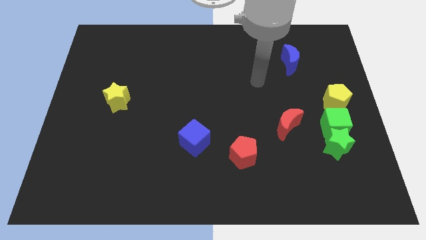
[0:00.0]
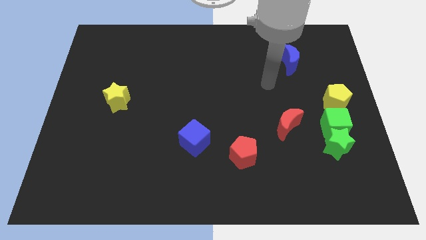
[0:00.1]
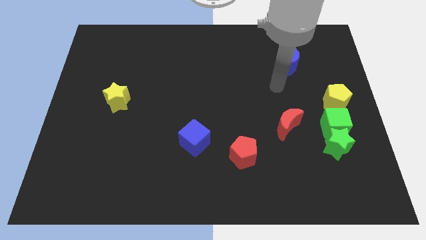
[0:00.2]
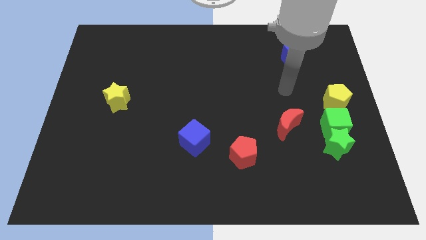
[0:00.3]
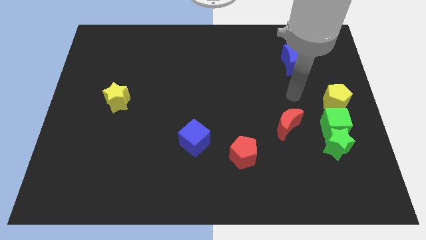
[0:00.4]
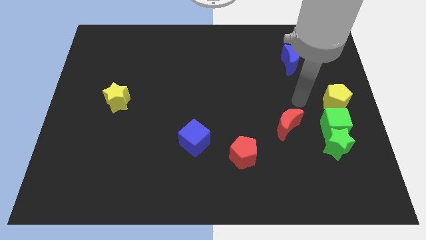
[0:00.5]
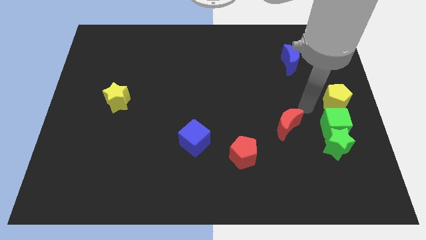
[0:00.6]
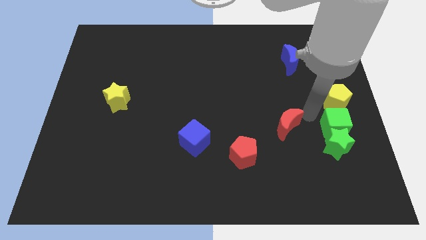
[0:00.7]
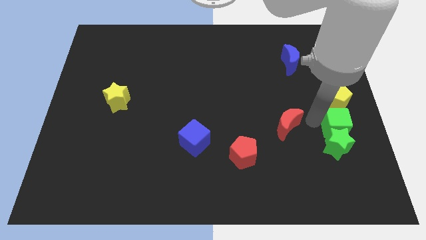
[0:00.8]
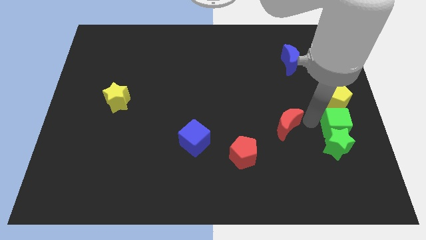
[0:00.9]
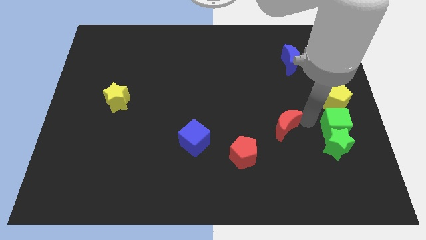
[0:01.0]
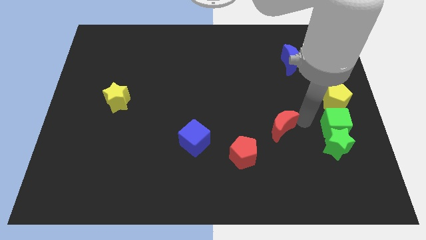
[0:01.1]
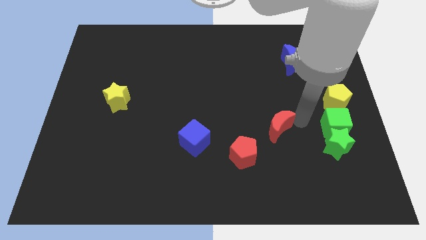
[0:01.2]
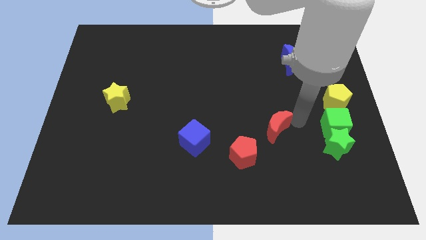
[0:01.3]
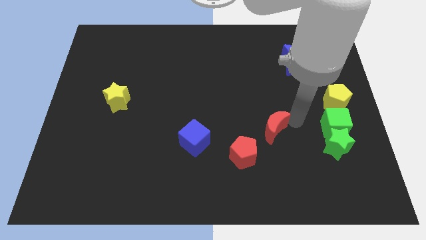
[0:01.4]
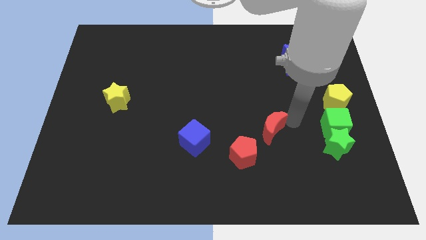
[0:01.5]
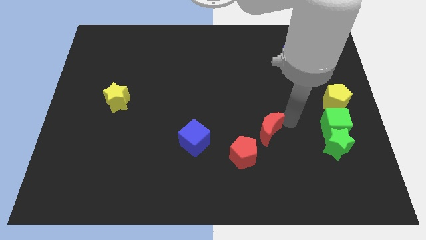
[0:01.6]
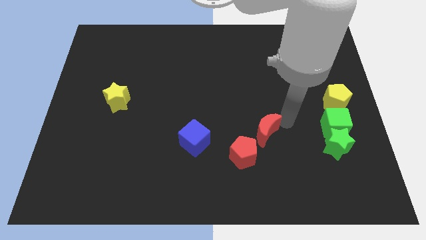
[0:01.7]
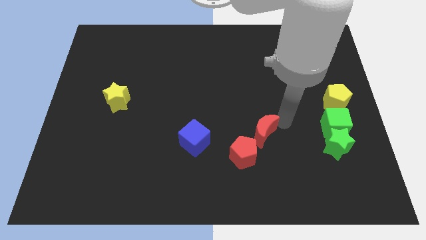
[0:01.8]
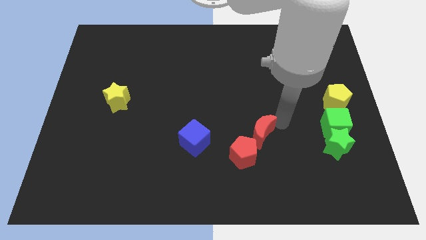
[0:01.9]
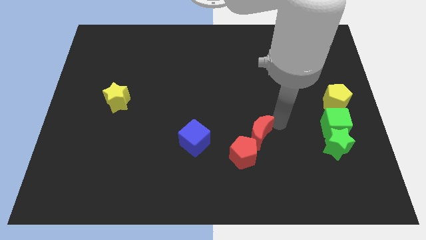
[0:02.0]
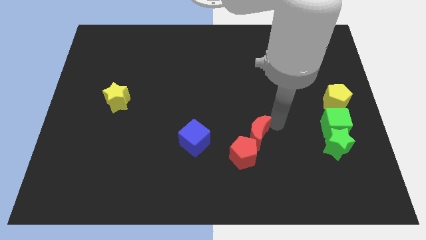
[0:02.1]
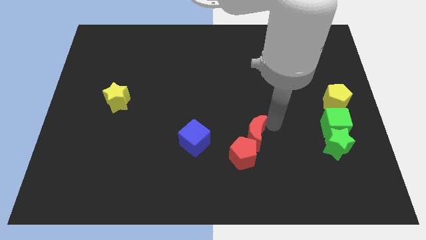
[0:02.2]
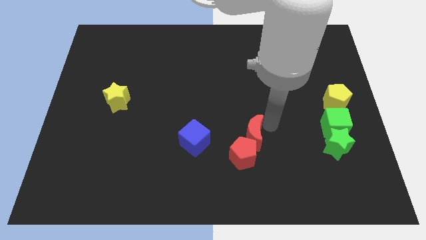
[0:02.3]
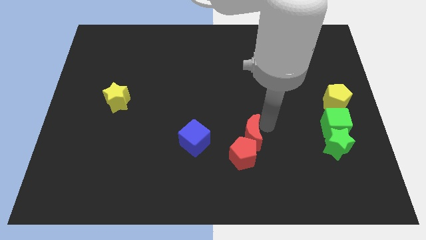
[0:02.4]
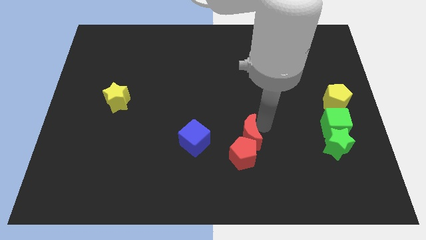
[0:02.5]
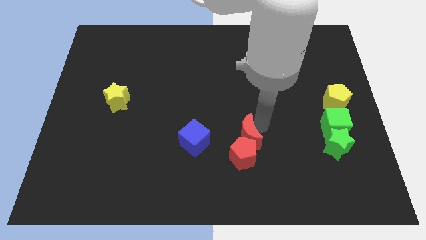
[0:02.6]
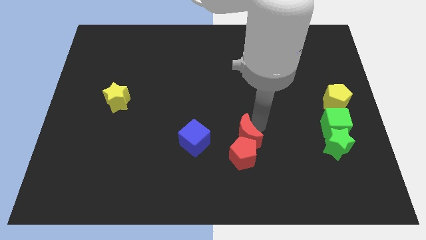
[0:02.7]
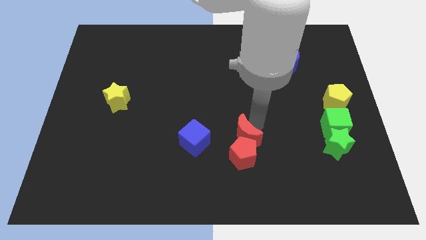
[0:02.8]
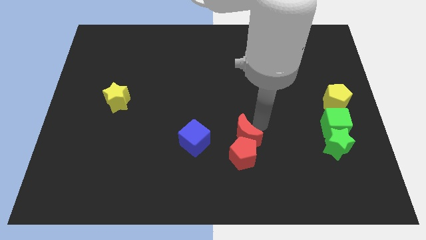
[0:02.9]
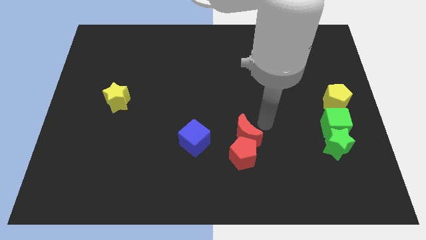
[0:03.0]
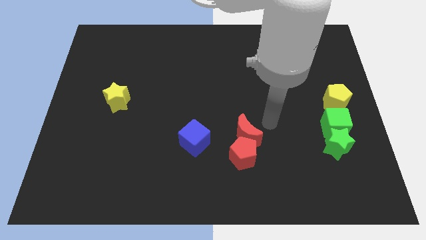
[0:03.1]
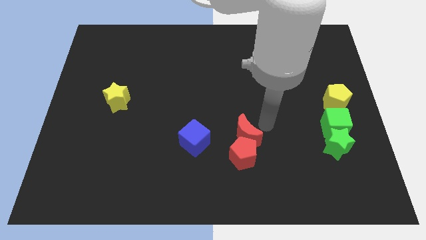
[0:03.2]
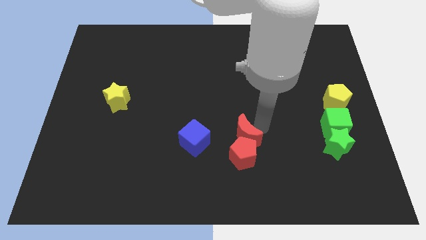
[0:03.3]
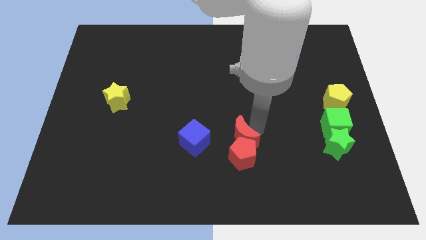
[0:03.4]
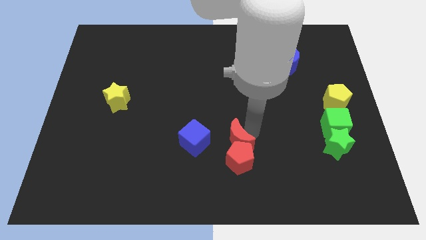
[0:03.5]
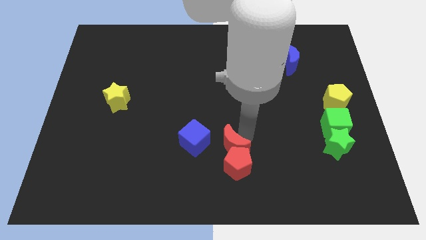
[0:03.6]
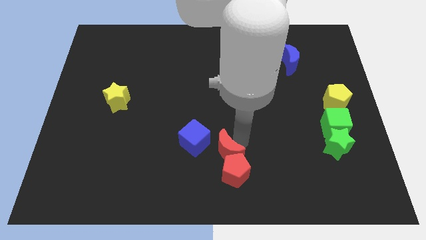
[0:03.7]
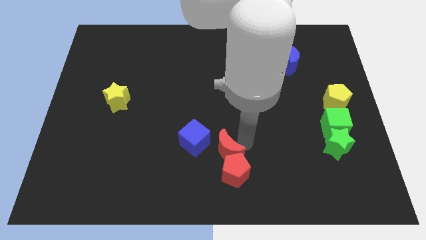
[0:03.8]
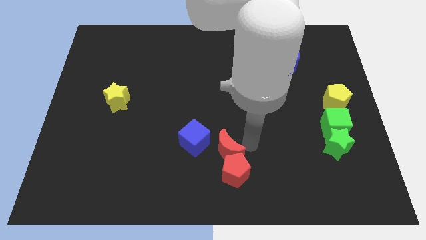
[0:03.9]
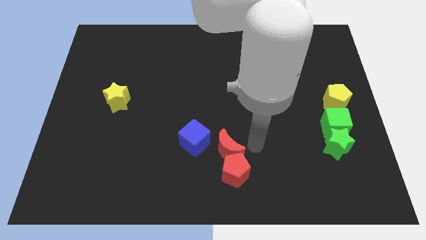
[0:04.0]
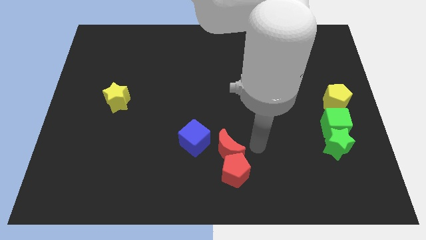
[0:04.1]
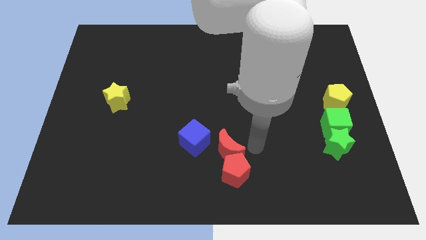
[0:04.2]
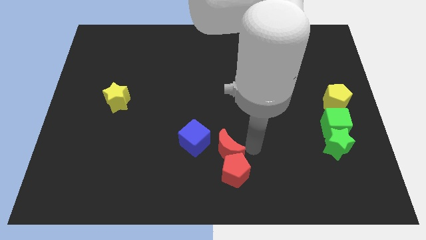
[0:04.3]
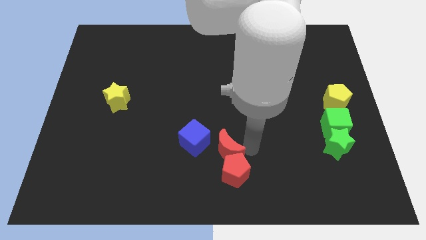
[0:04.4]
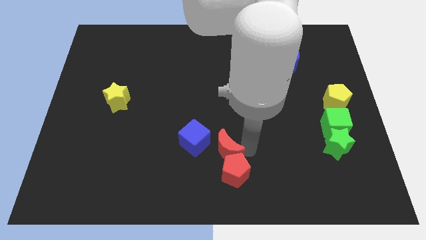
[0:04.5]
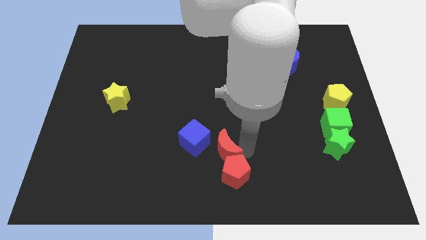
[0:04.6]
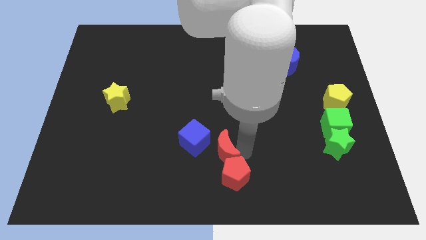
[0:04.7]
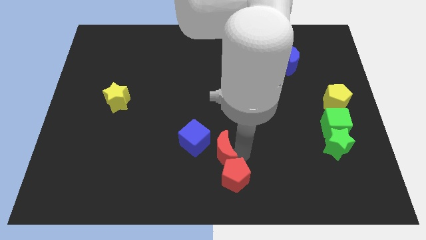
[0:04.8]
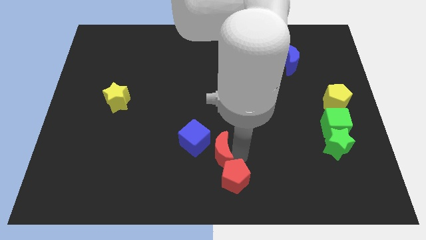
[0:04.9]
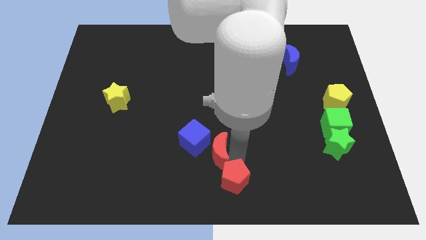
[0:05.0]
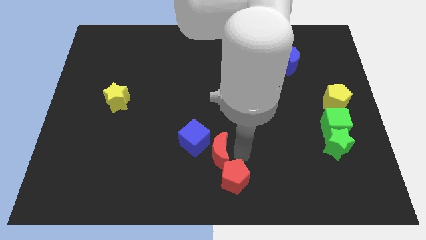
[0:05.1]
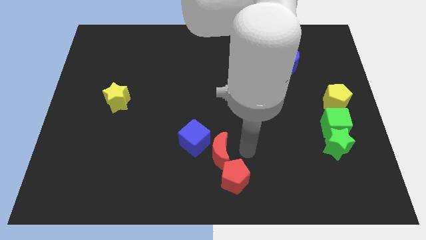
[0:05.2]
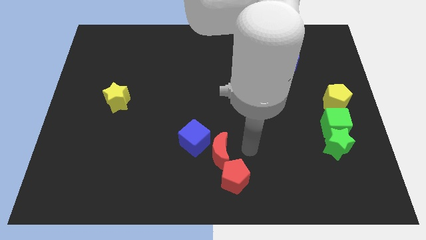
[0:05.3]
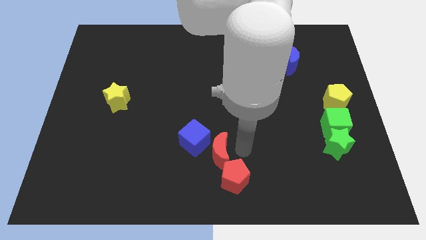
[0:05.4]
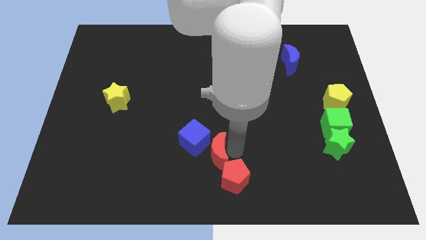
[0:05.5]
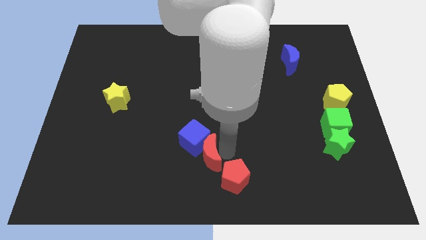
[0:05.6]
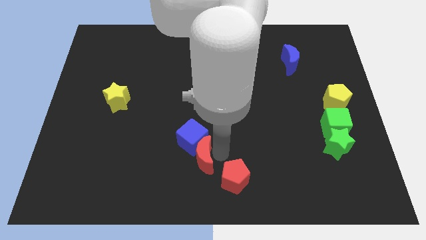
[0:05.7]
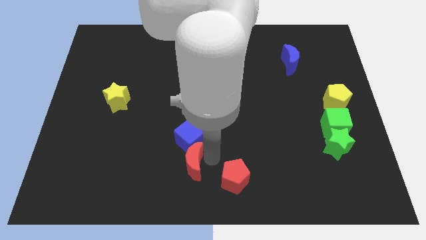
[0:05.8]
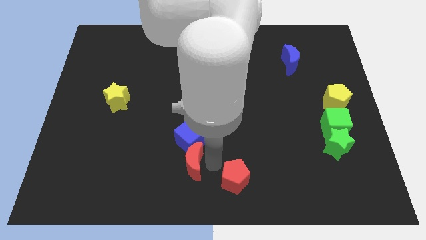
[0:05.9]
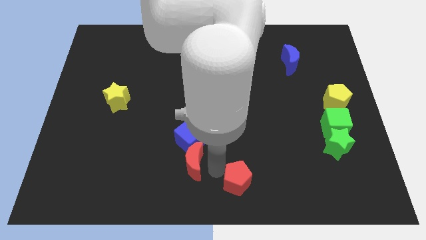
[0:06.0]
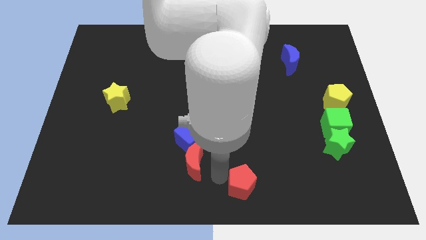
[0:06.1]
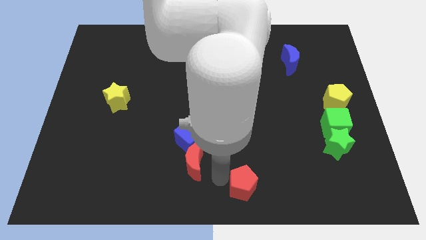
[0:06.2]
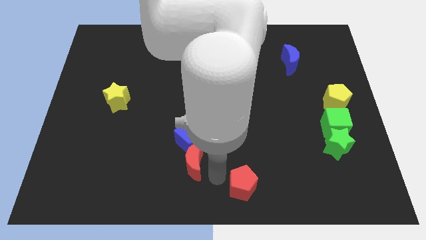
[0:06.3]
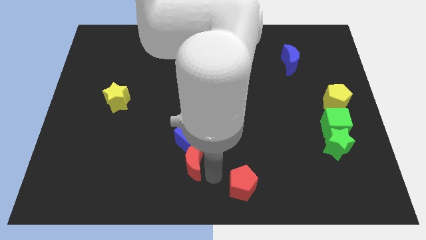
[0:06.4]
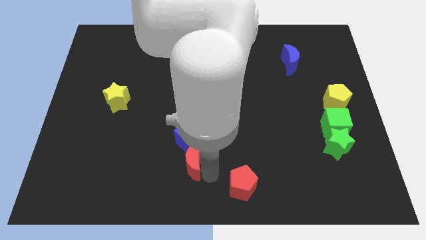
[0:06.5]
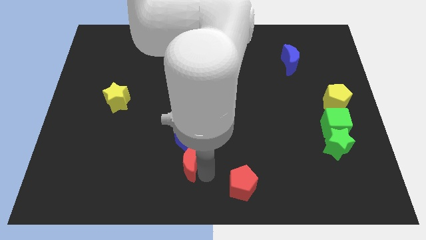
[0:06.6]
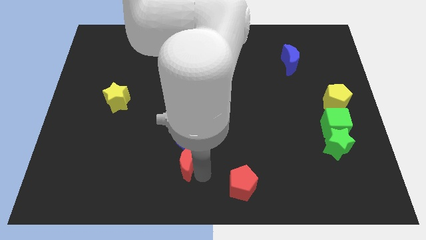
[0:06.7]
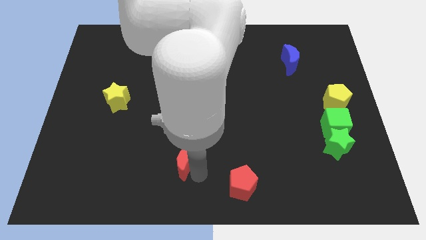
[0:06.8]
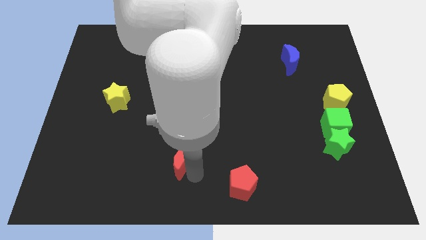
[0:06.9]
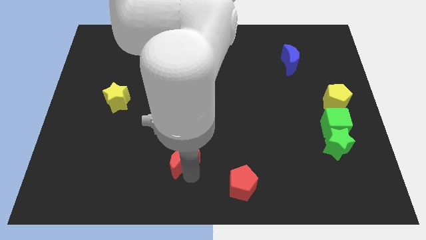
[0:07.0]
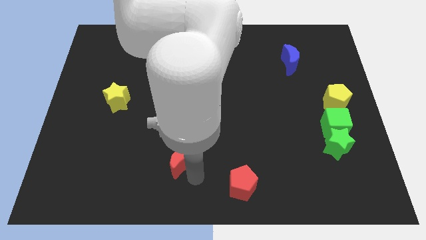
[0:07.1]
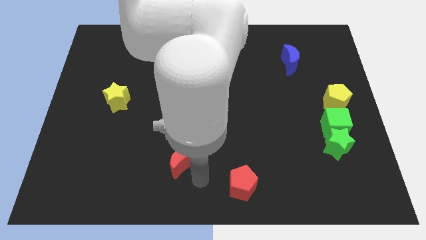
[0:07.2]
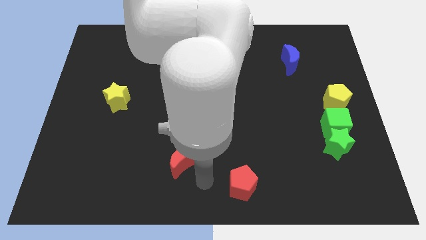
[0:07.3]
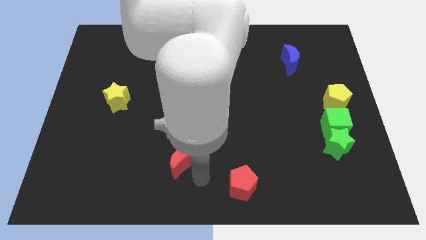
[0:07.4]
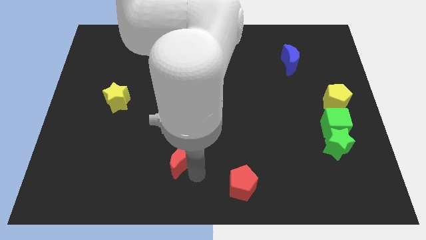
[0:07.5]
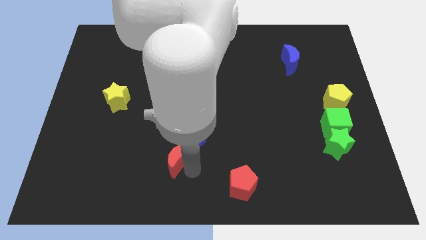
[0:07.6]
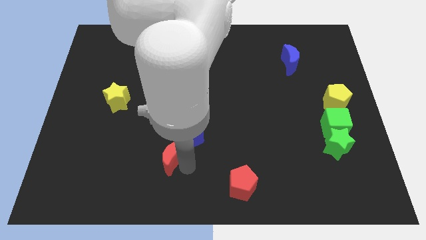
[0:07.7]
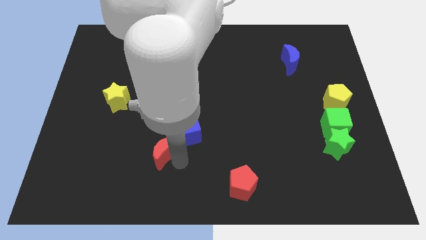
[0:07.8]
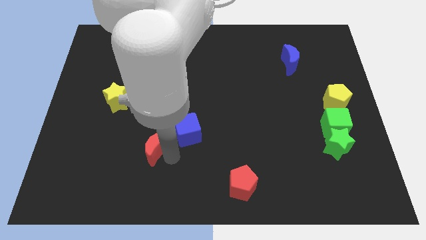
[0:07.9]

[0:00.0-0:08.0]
push the red moon to the left side of the blue cube
